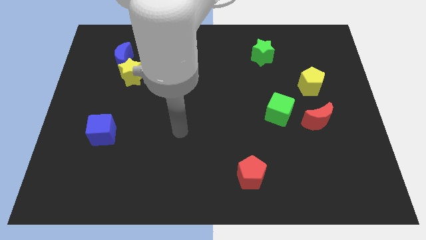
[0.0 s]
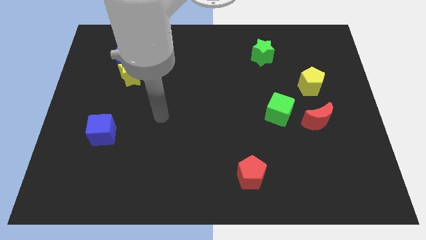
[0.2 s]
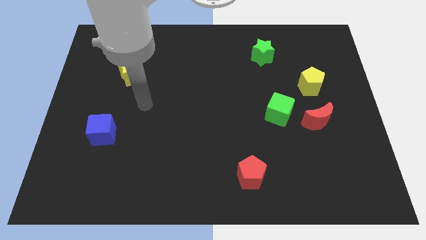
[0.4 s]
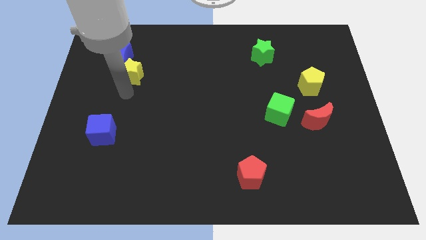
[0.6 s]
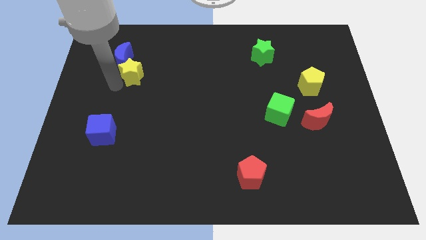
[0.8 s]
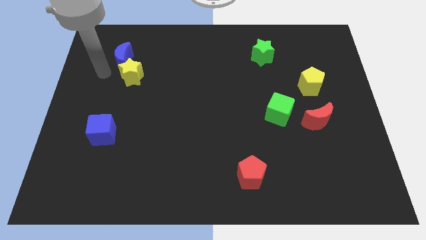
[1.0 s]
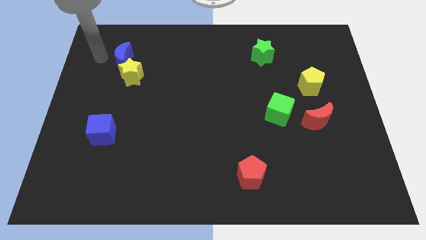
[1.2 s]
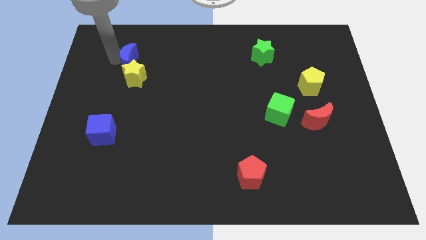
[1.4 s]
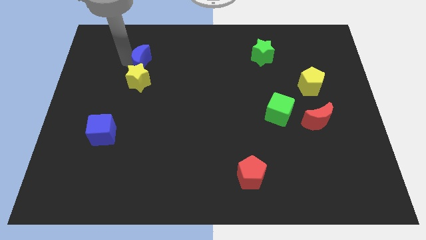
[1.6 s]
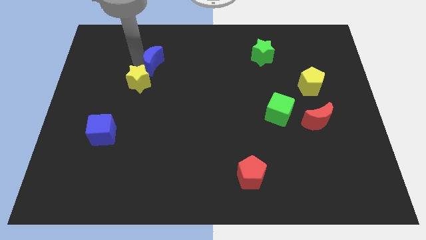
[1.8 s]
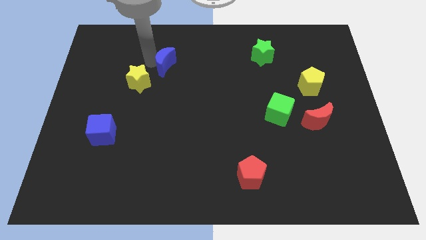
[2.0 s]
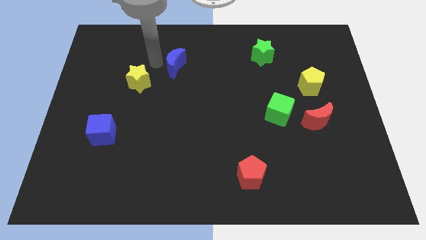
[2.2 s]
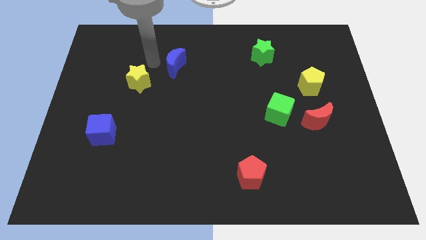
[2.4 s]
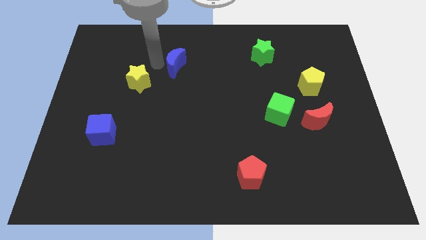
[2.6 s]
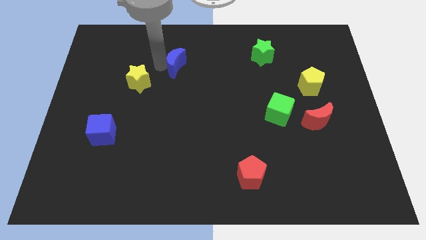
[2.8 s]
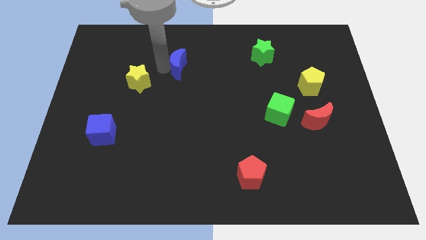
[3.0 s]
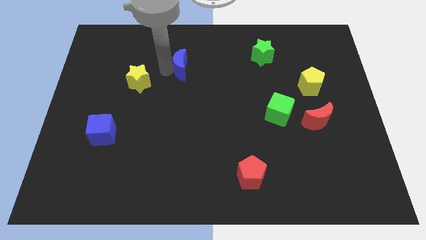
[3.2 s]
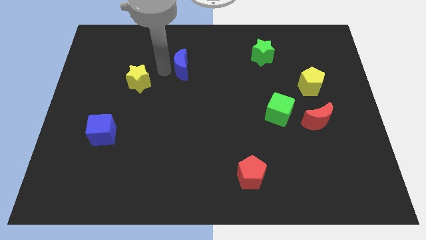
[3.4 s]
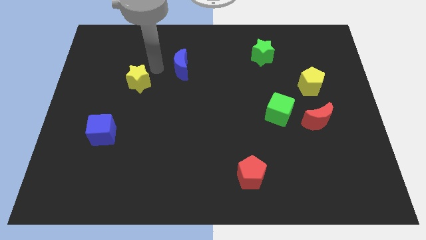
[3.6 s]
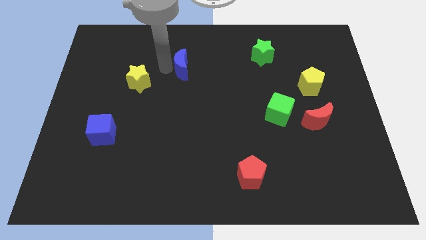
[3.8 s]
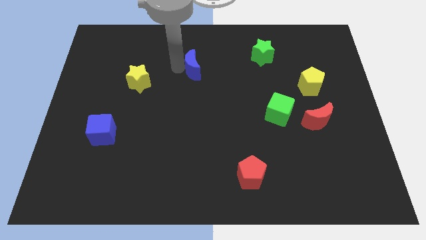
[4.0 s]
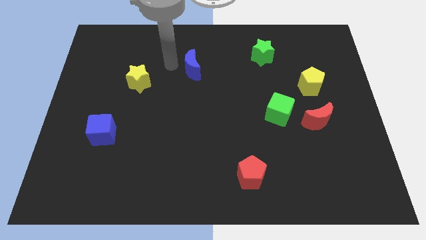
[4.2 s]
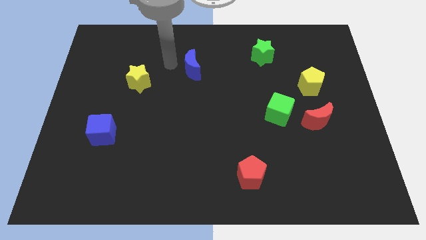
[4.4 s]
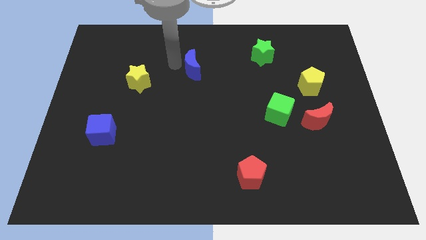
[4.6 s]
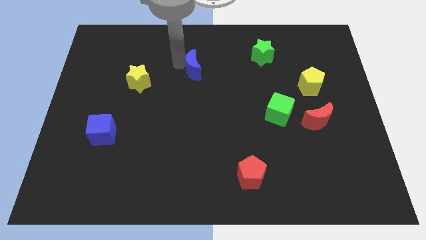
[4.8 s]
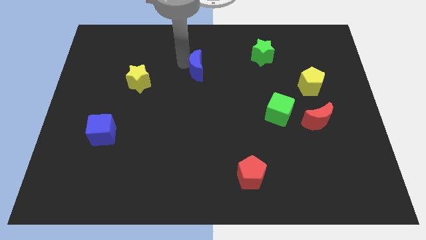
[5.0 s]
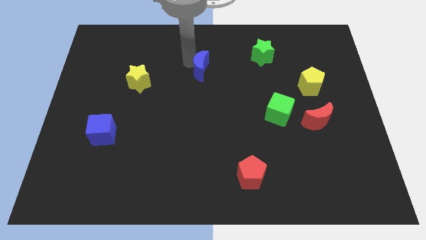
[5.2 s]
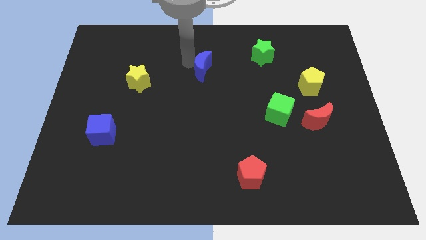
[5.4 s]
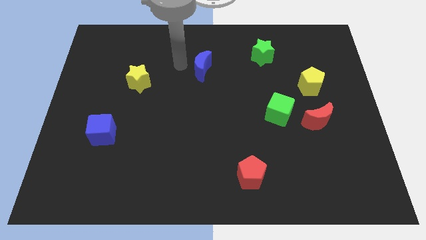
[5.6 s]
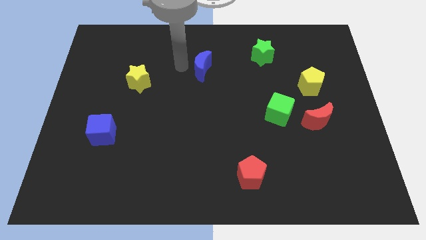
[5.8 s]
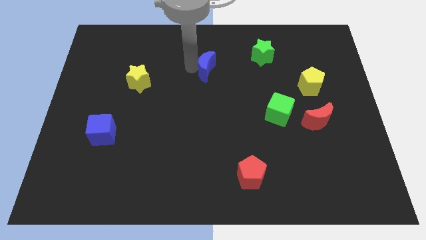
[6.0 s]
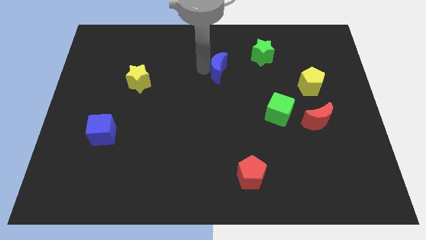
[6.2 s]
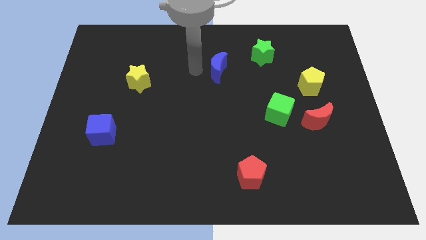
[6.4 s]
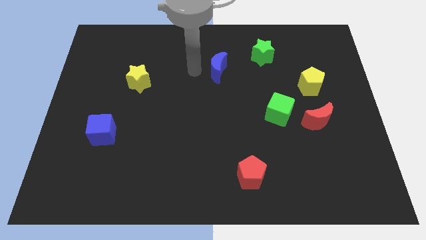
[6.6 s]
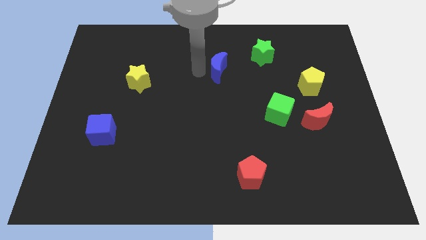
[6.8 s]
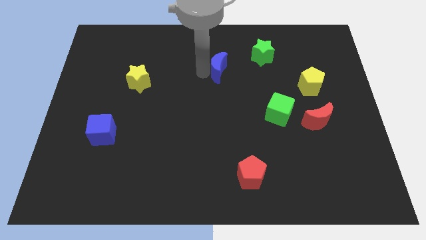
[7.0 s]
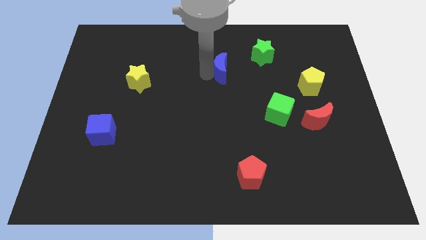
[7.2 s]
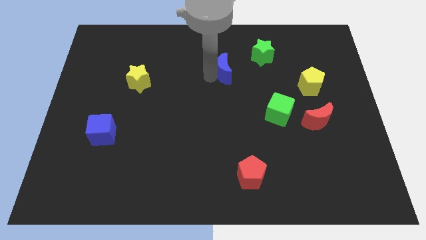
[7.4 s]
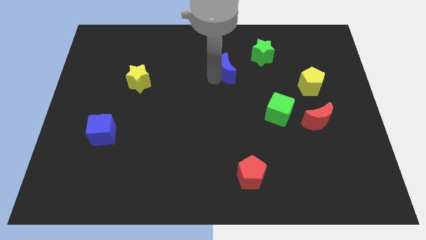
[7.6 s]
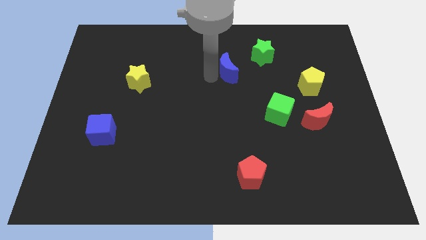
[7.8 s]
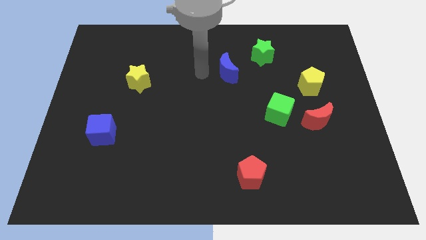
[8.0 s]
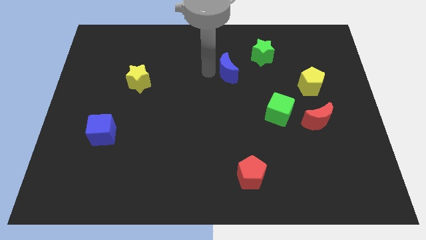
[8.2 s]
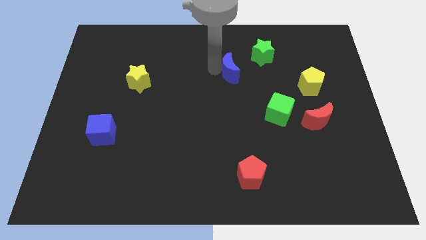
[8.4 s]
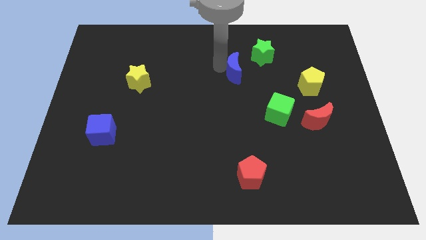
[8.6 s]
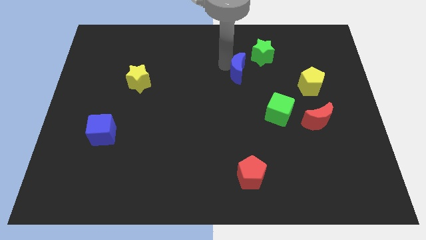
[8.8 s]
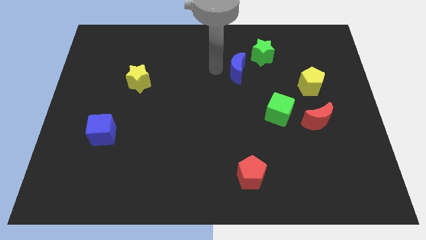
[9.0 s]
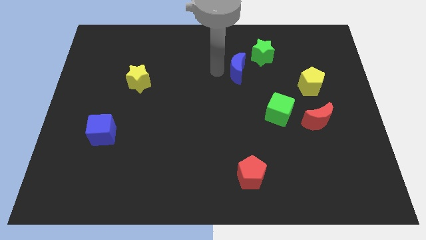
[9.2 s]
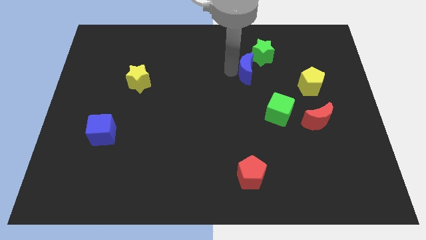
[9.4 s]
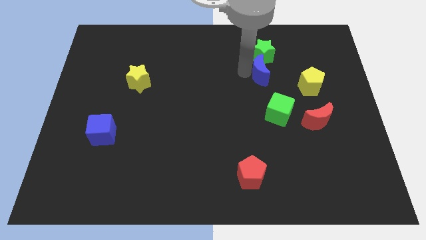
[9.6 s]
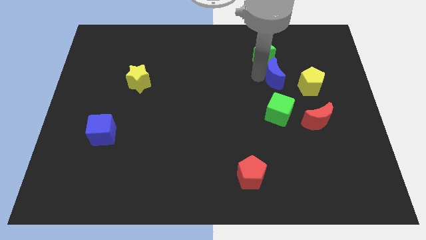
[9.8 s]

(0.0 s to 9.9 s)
put the blue moon diagonally up and to the left of the yellow pentagon

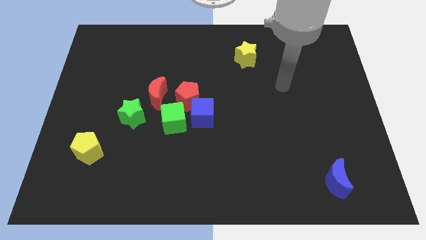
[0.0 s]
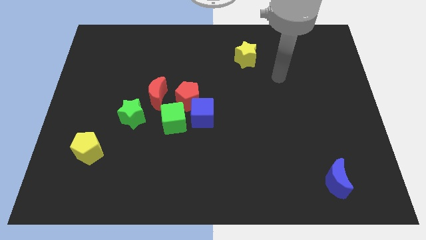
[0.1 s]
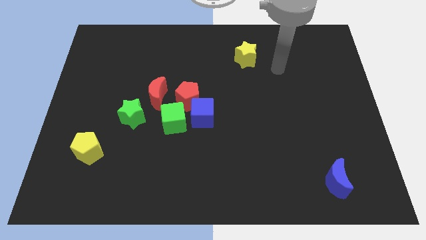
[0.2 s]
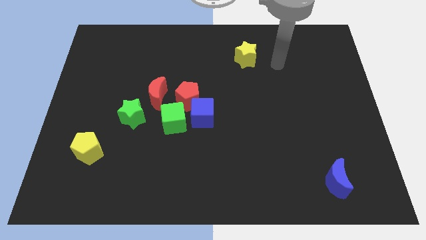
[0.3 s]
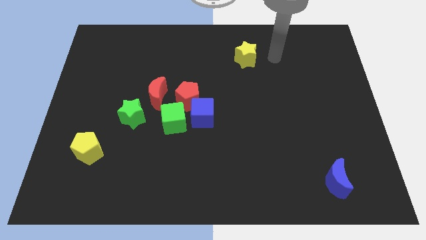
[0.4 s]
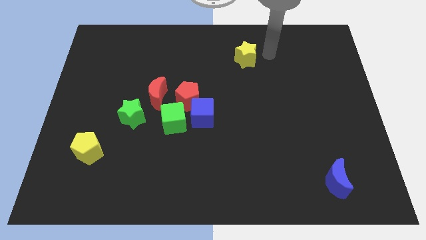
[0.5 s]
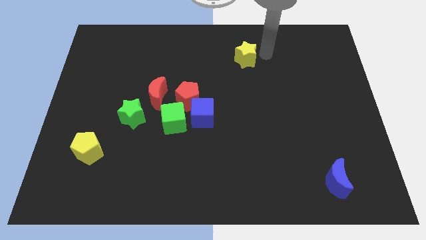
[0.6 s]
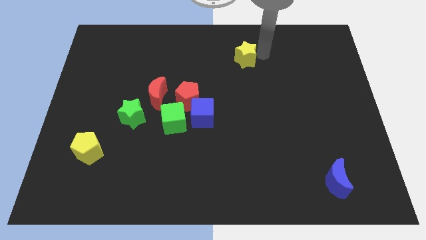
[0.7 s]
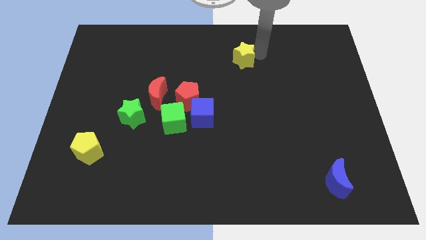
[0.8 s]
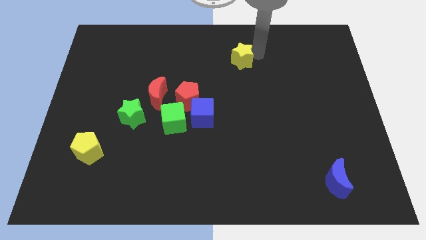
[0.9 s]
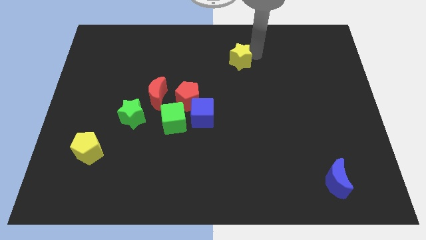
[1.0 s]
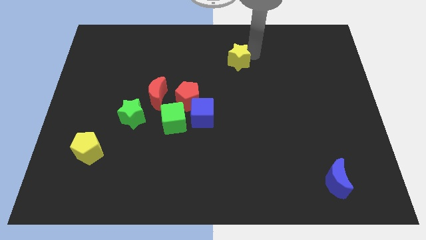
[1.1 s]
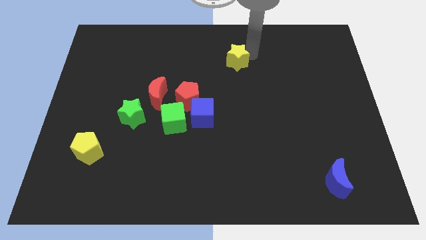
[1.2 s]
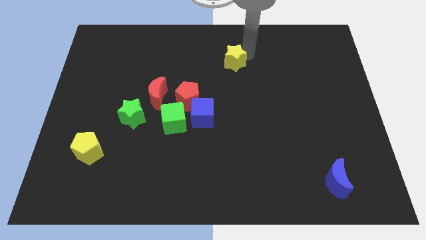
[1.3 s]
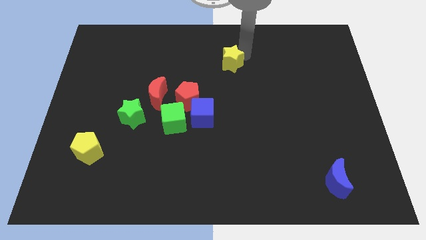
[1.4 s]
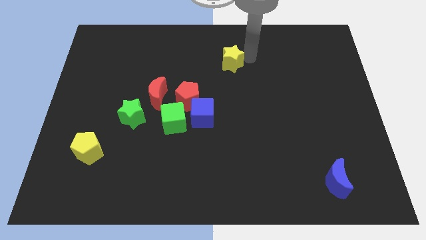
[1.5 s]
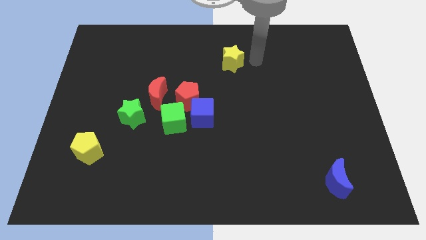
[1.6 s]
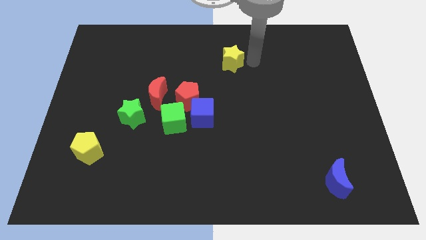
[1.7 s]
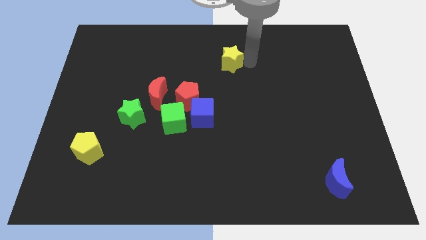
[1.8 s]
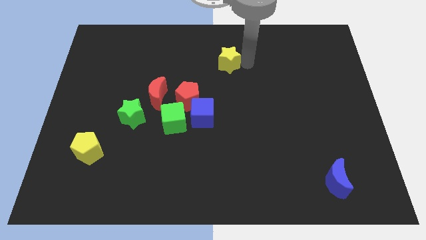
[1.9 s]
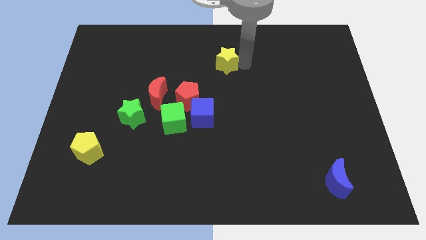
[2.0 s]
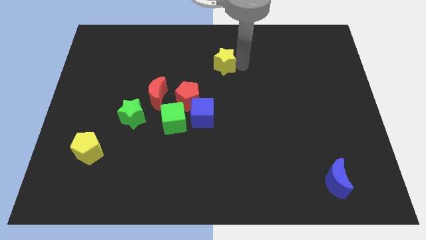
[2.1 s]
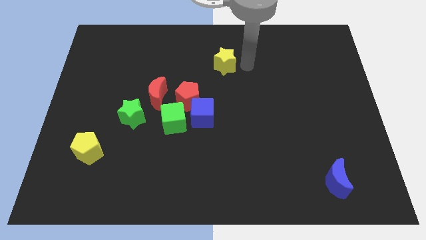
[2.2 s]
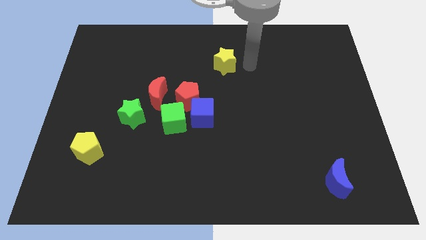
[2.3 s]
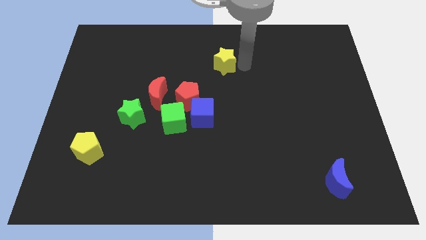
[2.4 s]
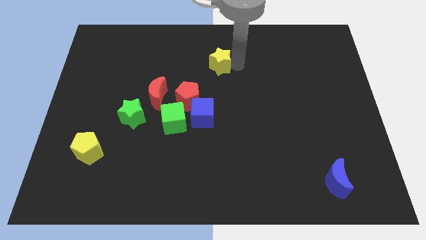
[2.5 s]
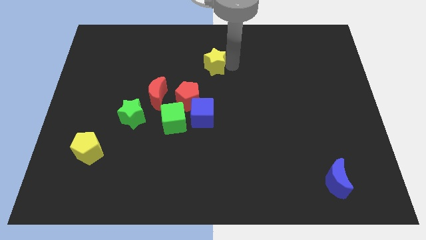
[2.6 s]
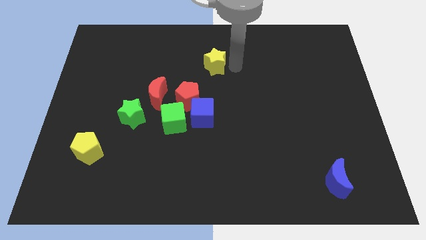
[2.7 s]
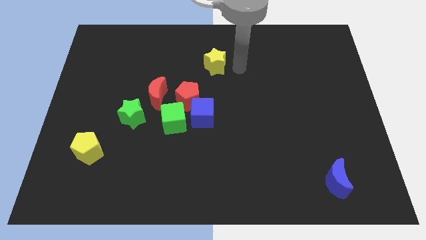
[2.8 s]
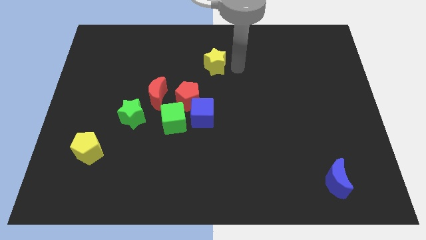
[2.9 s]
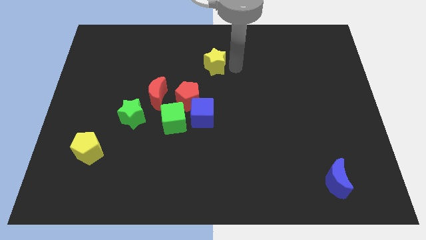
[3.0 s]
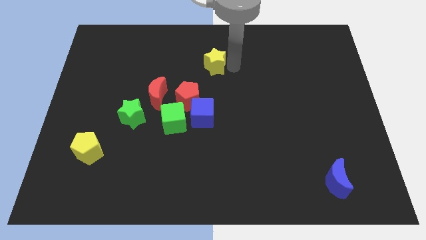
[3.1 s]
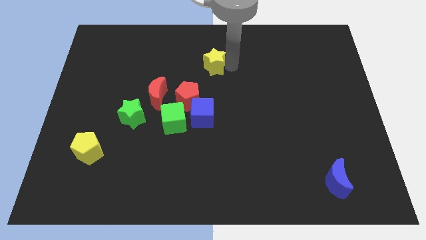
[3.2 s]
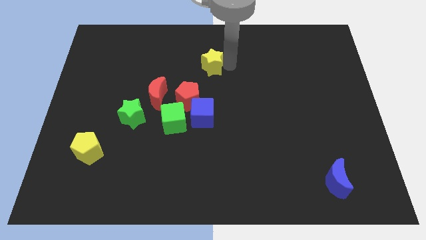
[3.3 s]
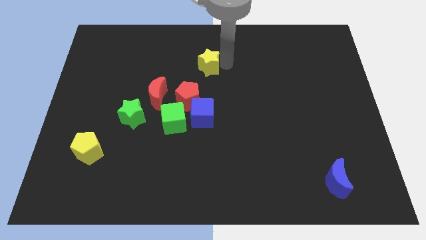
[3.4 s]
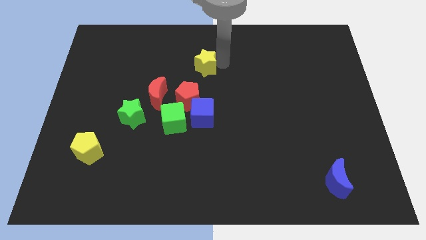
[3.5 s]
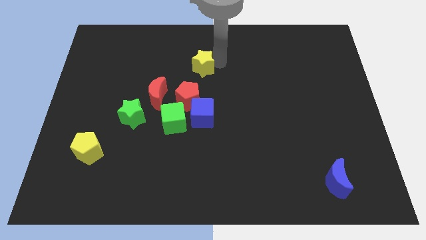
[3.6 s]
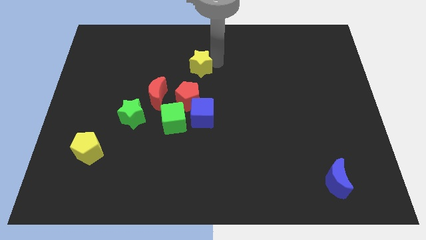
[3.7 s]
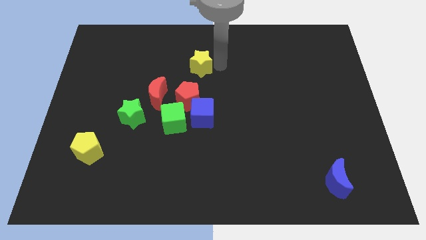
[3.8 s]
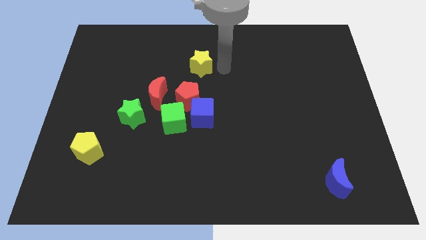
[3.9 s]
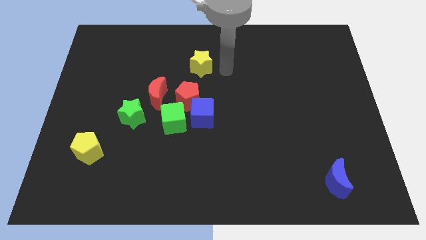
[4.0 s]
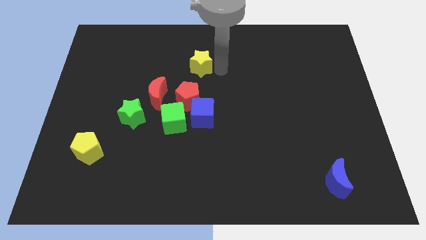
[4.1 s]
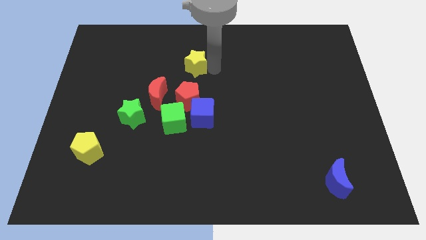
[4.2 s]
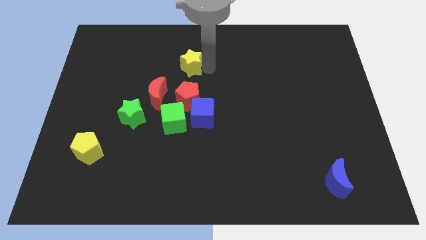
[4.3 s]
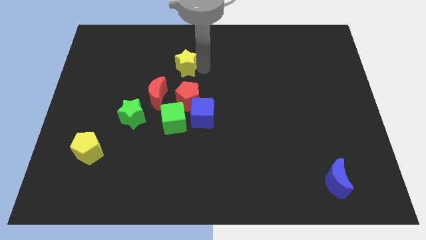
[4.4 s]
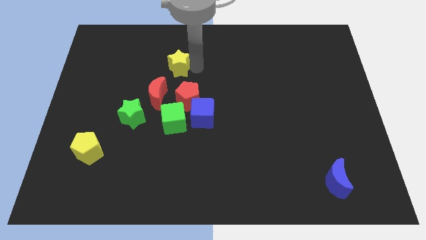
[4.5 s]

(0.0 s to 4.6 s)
push the yellow star above the red moon
